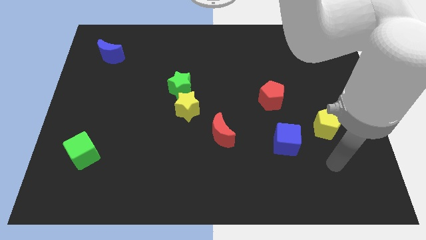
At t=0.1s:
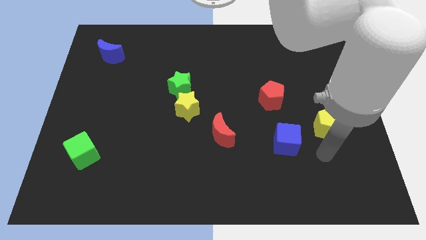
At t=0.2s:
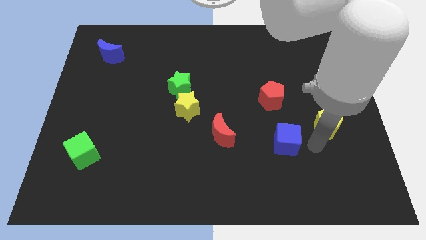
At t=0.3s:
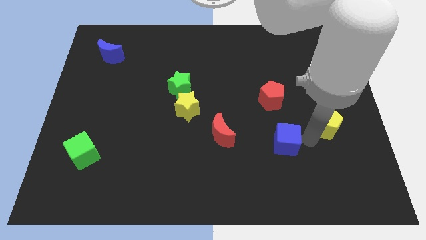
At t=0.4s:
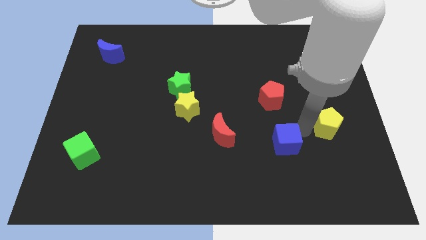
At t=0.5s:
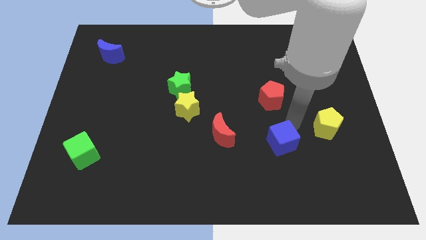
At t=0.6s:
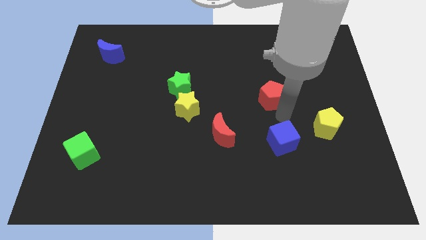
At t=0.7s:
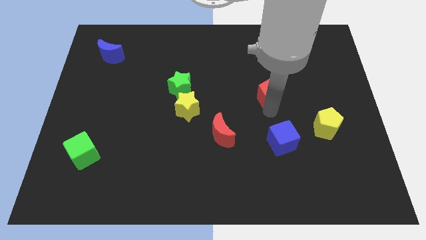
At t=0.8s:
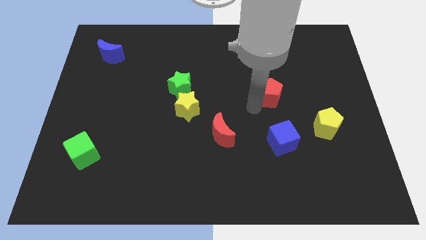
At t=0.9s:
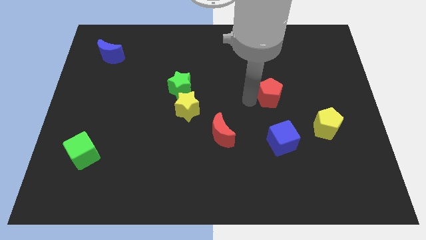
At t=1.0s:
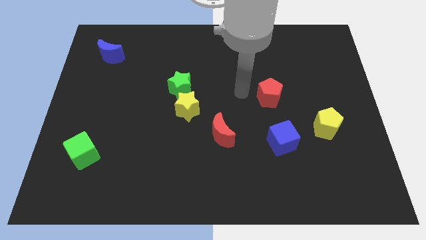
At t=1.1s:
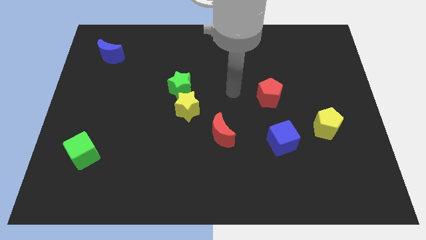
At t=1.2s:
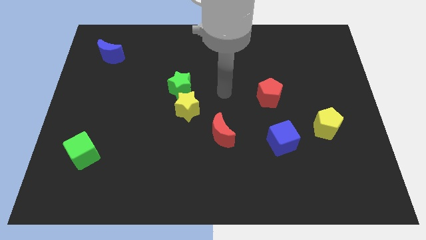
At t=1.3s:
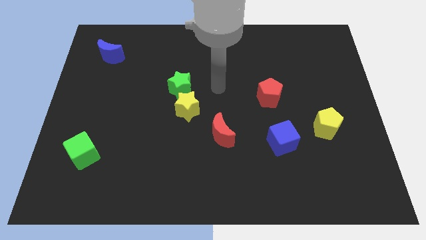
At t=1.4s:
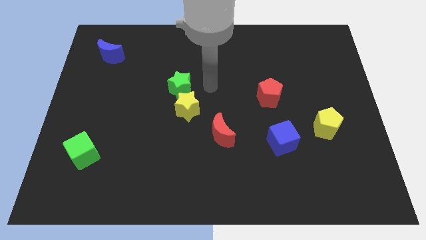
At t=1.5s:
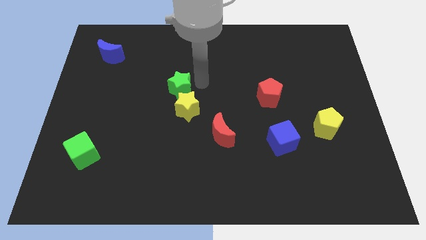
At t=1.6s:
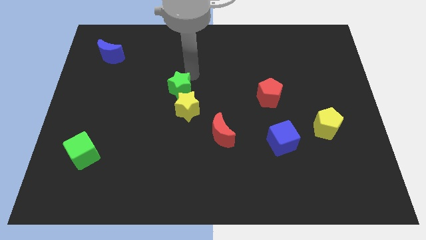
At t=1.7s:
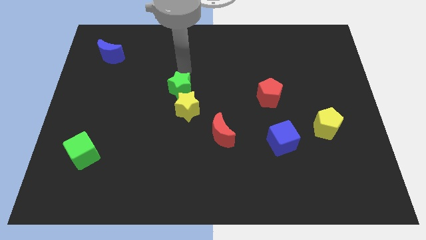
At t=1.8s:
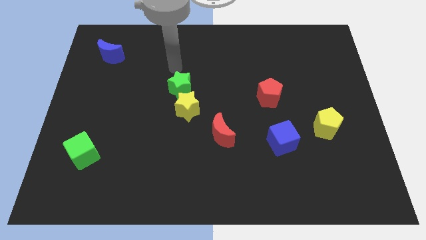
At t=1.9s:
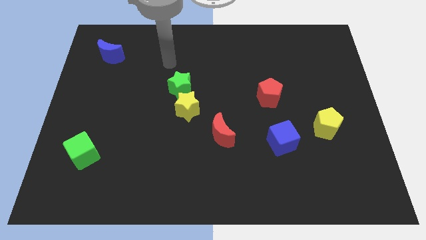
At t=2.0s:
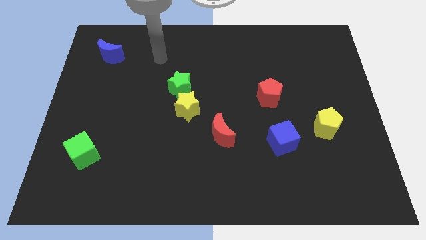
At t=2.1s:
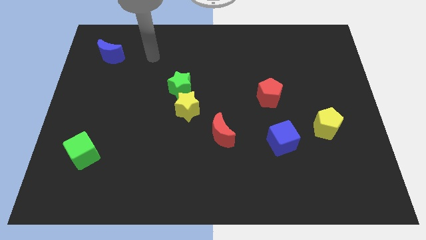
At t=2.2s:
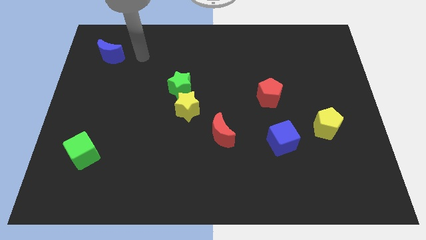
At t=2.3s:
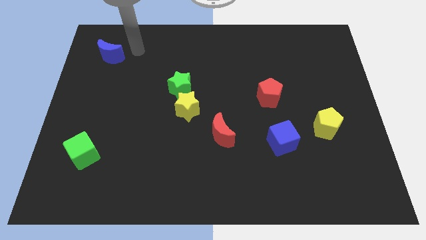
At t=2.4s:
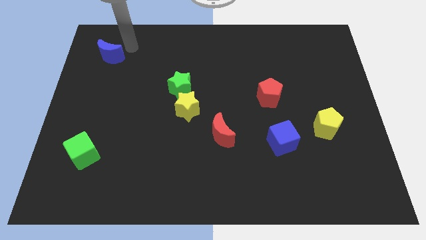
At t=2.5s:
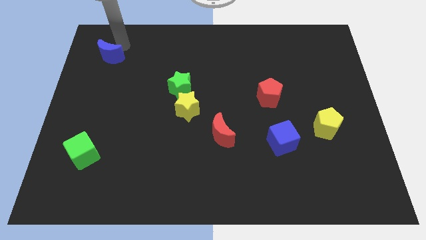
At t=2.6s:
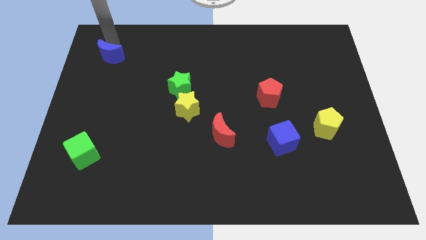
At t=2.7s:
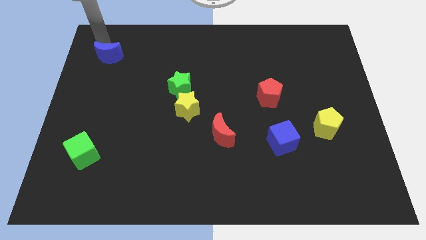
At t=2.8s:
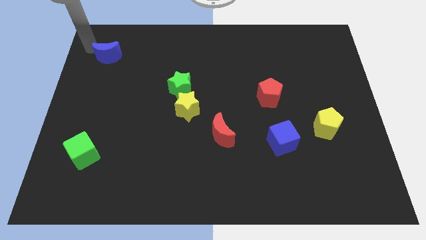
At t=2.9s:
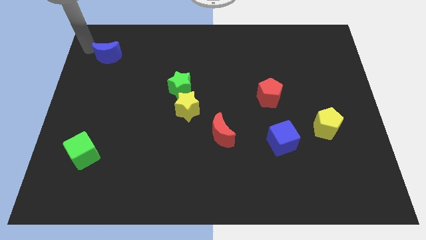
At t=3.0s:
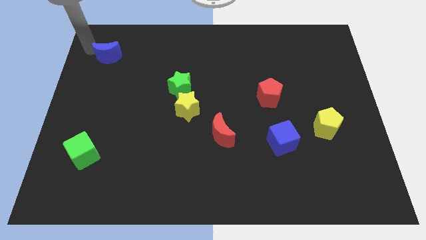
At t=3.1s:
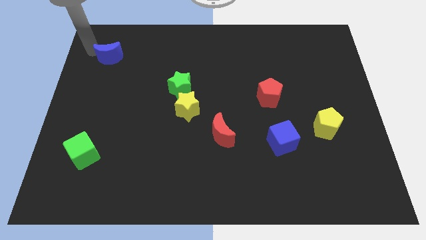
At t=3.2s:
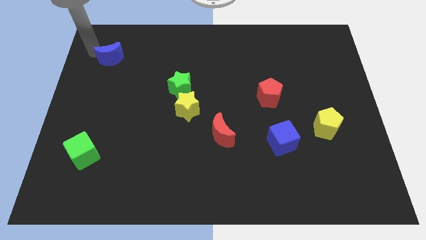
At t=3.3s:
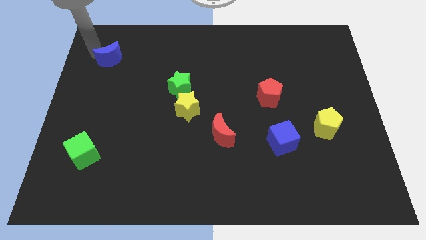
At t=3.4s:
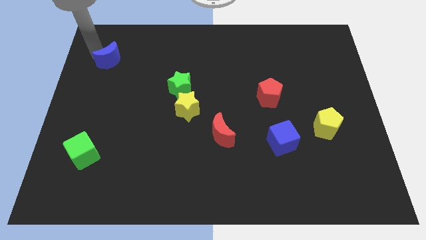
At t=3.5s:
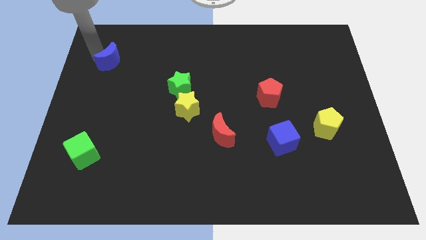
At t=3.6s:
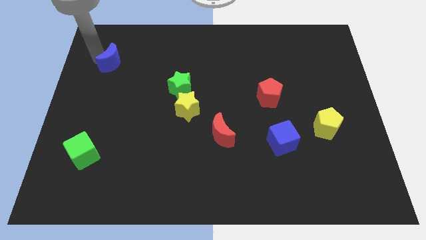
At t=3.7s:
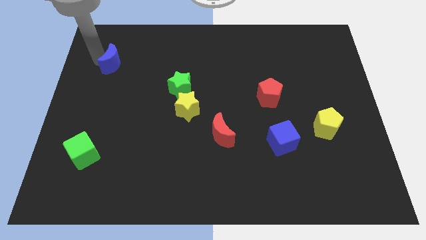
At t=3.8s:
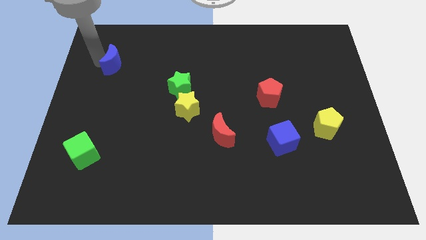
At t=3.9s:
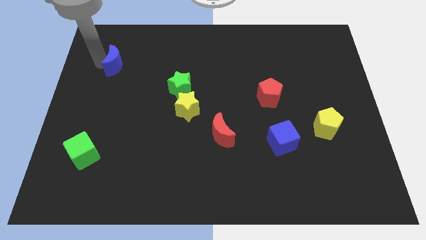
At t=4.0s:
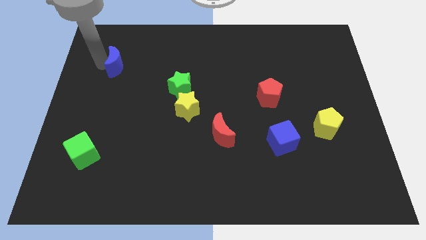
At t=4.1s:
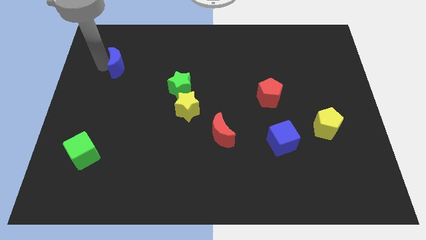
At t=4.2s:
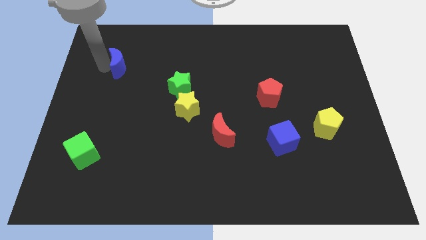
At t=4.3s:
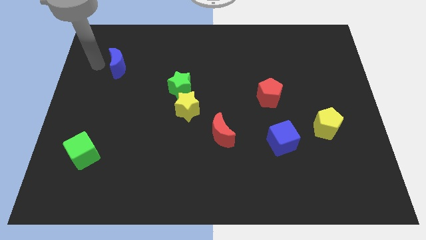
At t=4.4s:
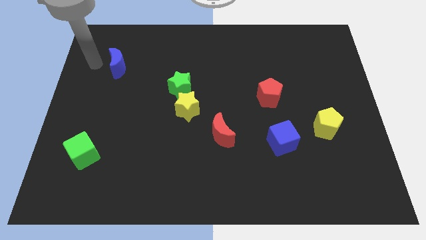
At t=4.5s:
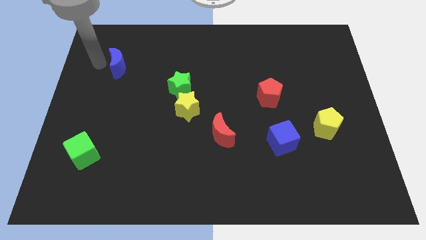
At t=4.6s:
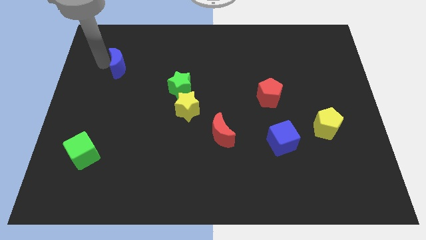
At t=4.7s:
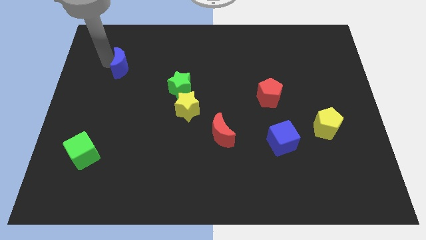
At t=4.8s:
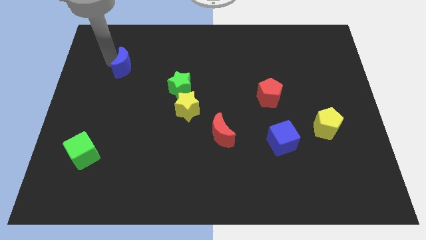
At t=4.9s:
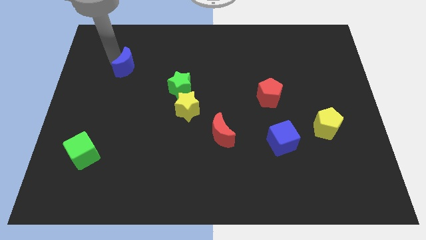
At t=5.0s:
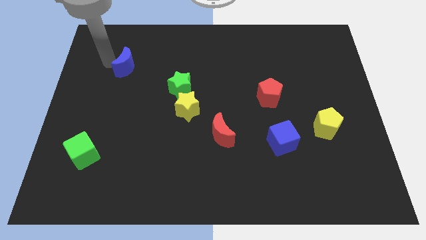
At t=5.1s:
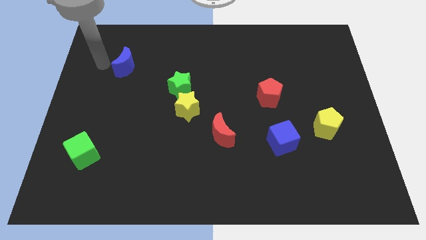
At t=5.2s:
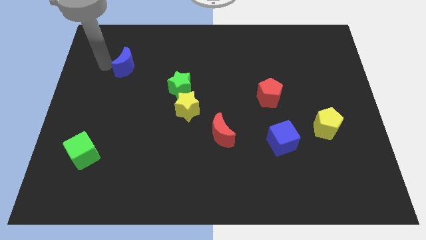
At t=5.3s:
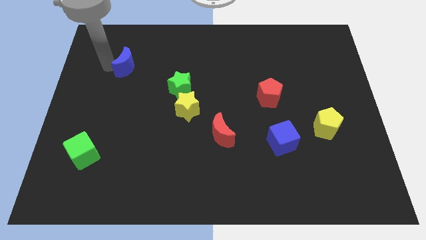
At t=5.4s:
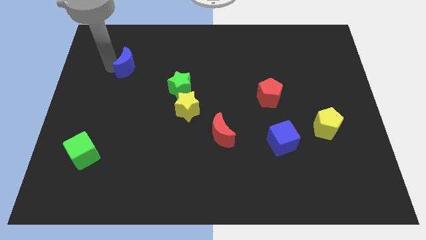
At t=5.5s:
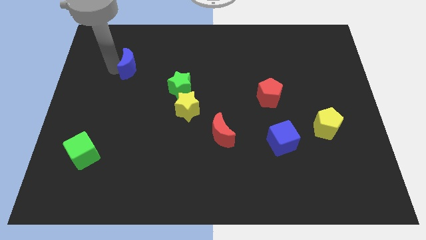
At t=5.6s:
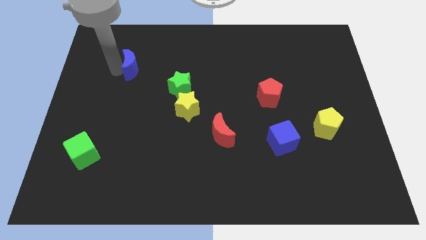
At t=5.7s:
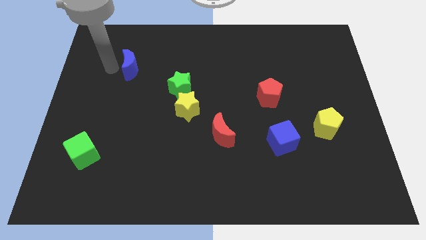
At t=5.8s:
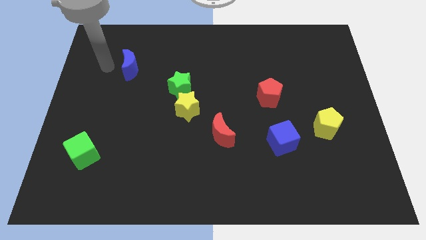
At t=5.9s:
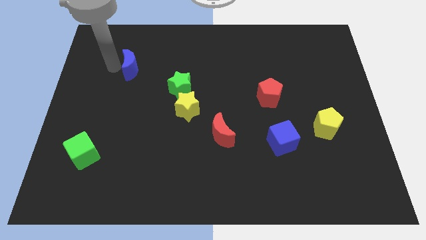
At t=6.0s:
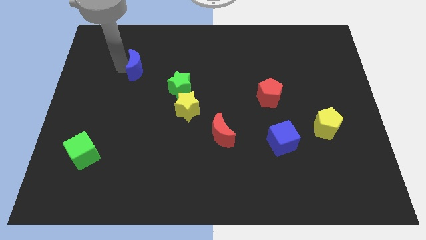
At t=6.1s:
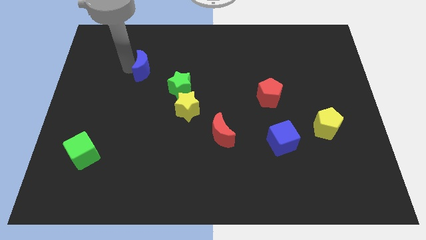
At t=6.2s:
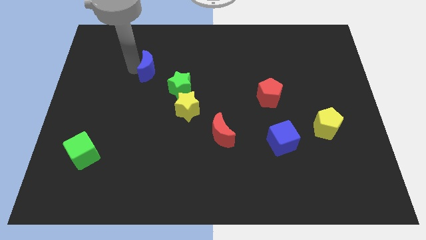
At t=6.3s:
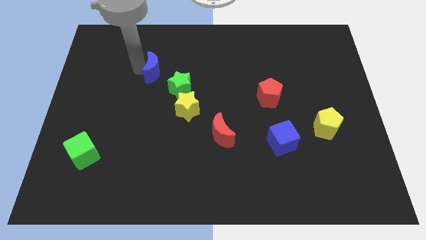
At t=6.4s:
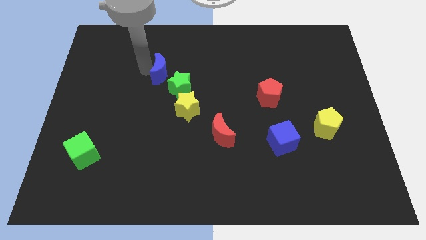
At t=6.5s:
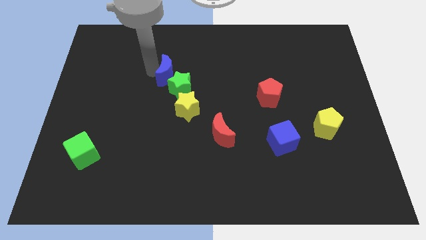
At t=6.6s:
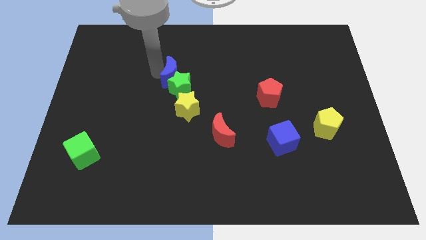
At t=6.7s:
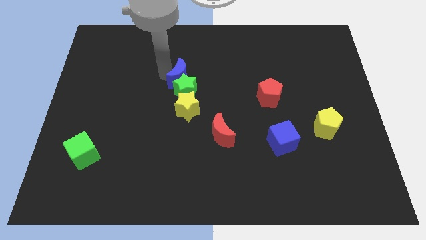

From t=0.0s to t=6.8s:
push the blue moon to the center
